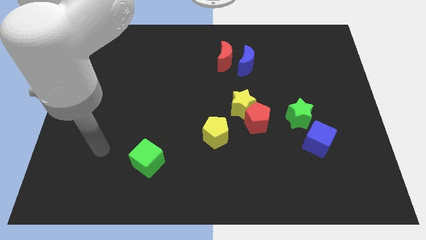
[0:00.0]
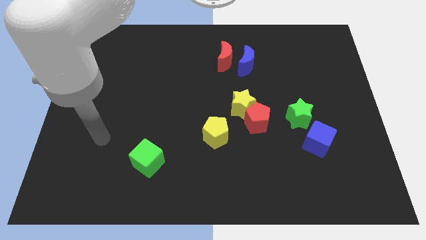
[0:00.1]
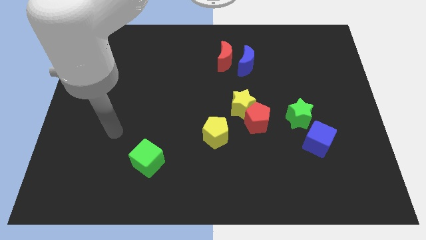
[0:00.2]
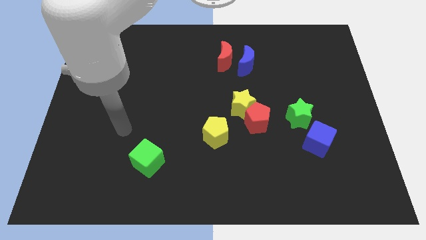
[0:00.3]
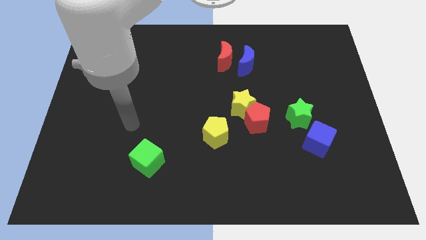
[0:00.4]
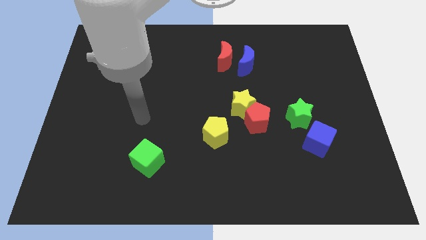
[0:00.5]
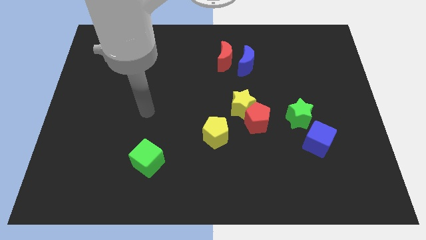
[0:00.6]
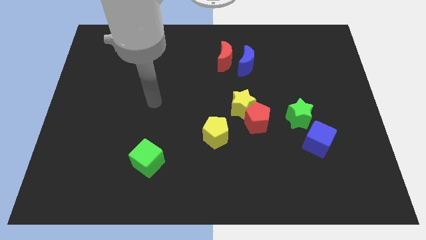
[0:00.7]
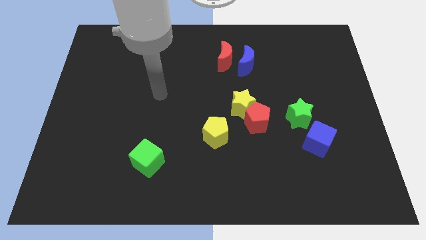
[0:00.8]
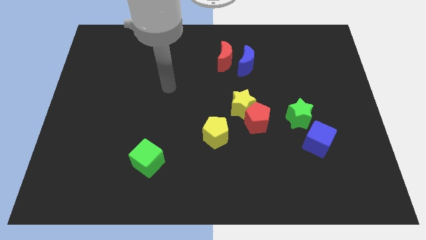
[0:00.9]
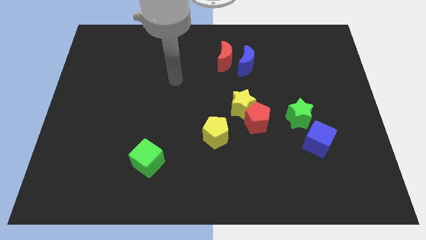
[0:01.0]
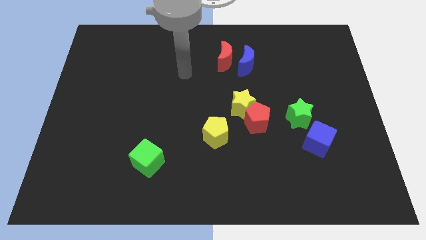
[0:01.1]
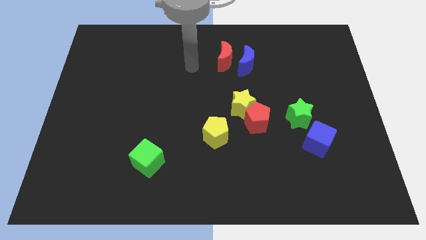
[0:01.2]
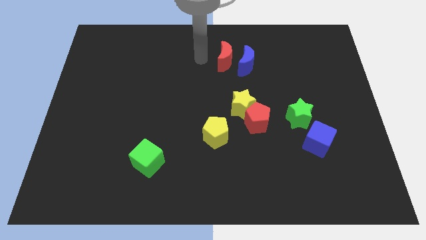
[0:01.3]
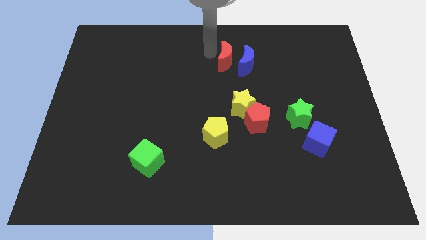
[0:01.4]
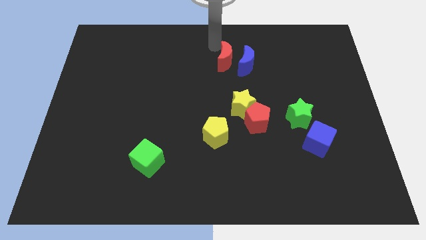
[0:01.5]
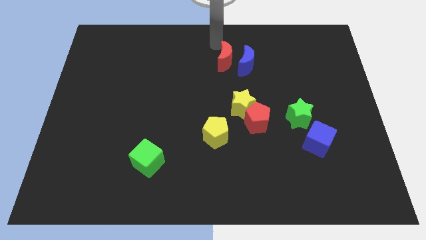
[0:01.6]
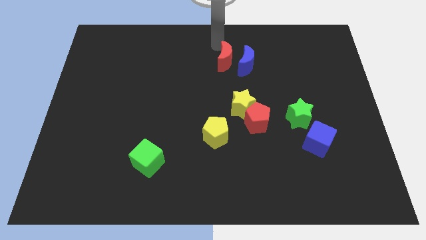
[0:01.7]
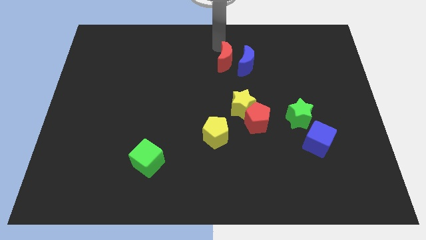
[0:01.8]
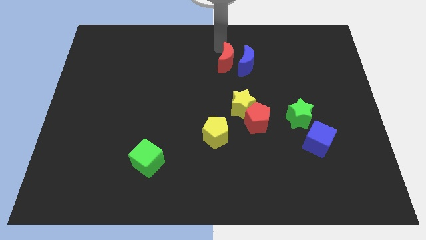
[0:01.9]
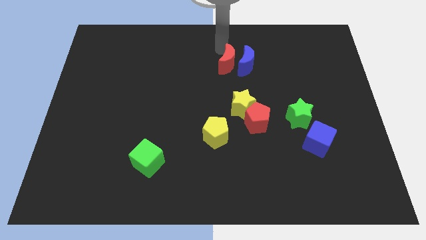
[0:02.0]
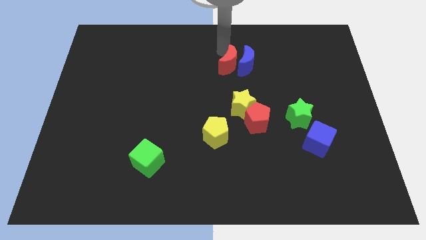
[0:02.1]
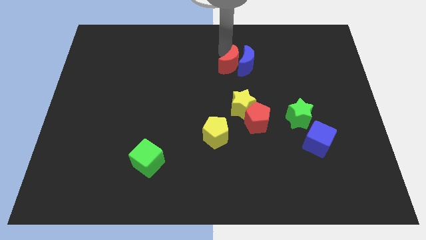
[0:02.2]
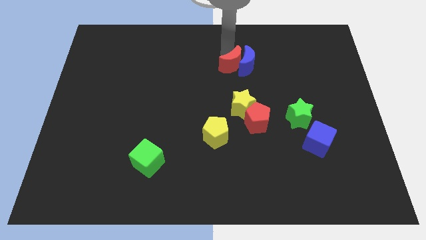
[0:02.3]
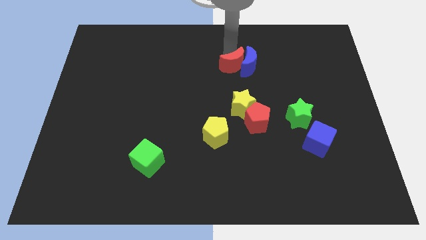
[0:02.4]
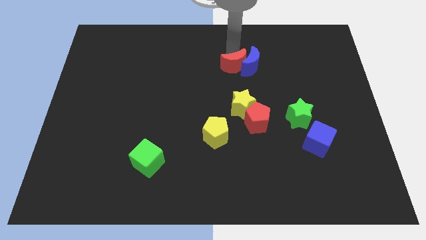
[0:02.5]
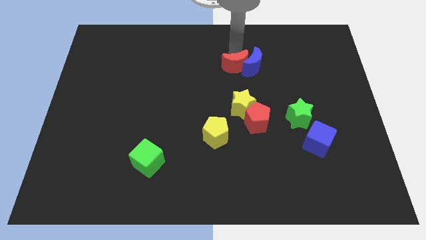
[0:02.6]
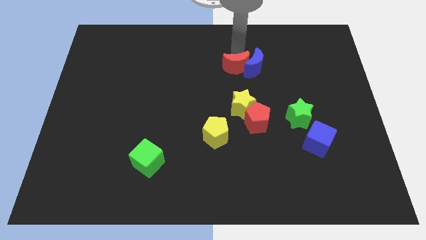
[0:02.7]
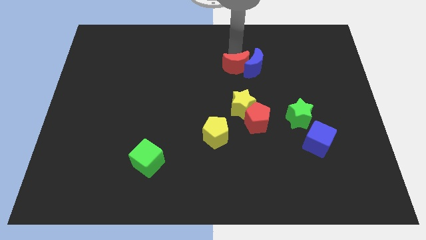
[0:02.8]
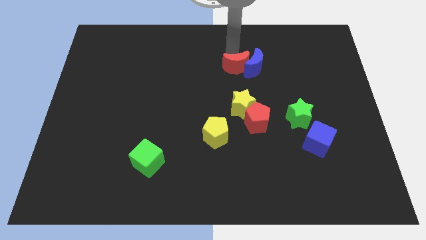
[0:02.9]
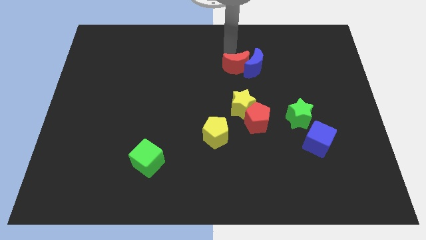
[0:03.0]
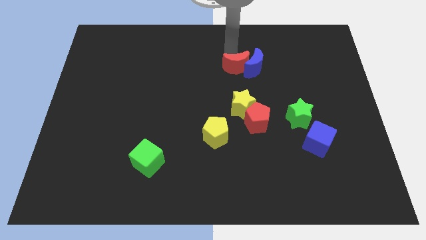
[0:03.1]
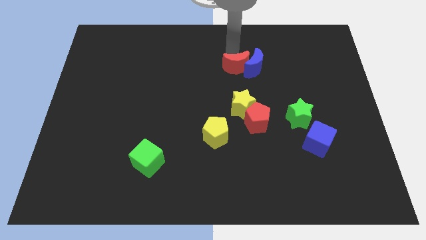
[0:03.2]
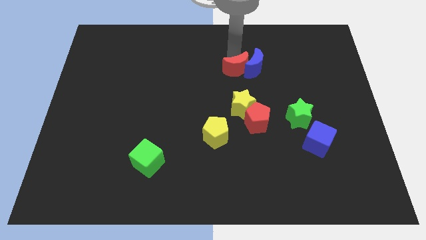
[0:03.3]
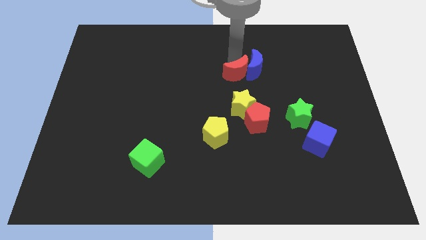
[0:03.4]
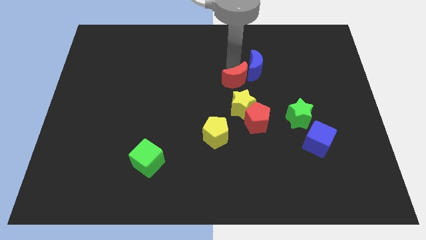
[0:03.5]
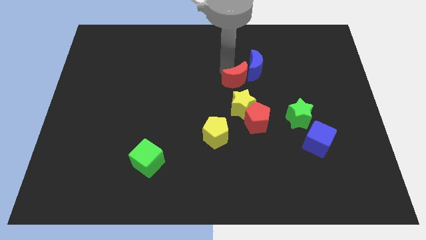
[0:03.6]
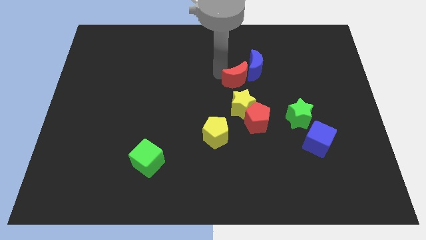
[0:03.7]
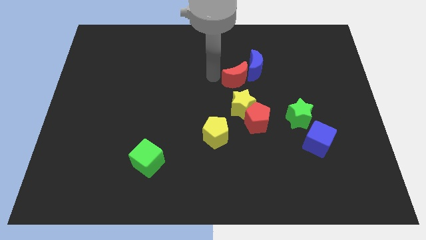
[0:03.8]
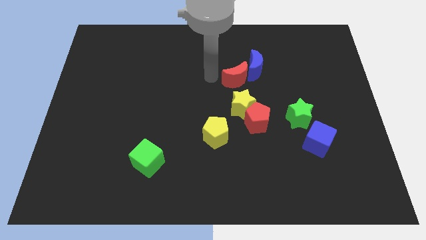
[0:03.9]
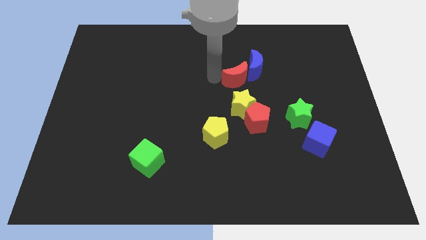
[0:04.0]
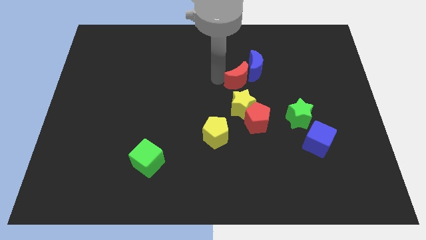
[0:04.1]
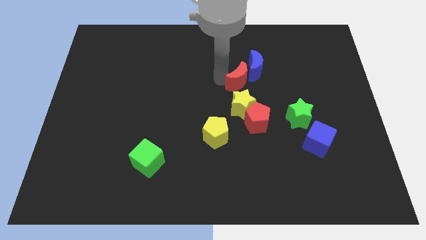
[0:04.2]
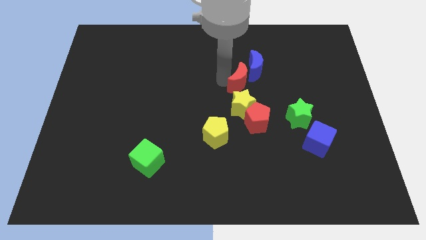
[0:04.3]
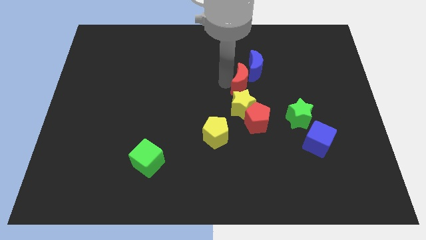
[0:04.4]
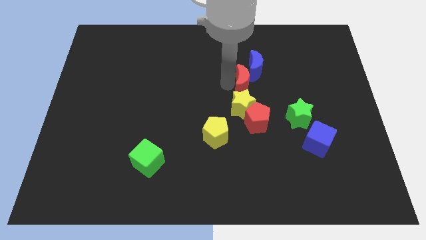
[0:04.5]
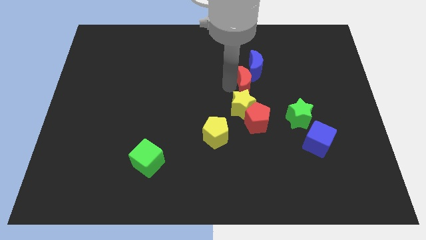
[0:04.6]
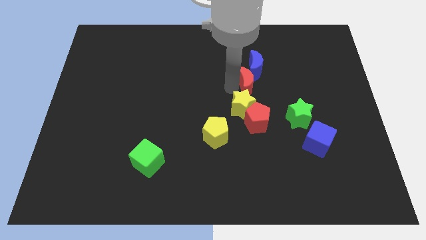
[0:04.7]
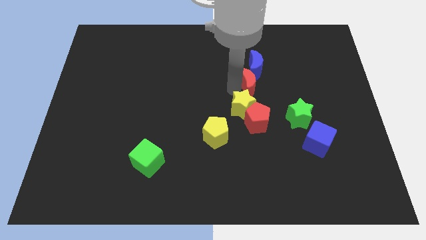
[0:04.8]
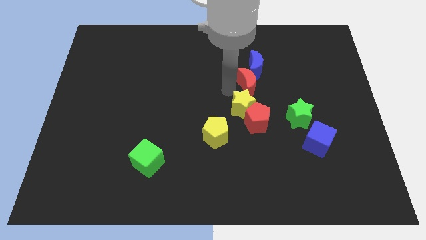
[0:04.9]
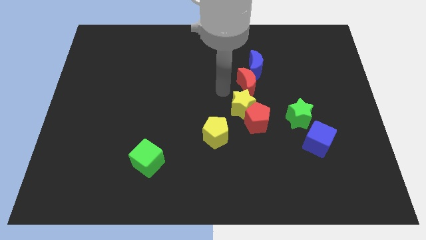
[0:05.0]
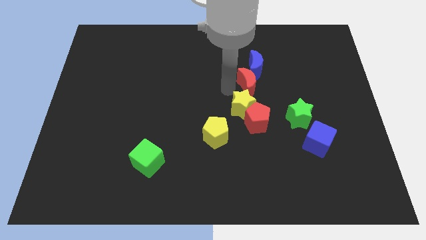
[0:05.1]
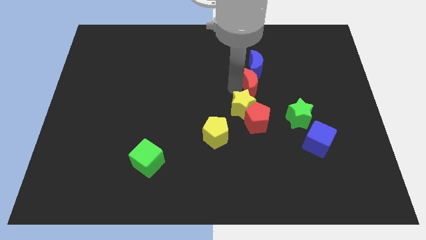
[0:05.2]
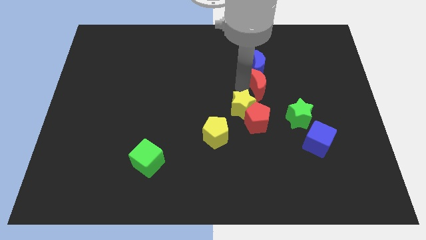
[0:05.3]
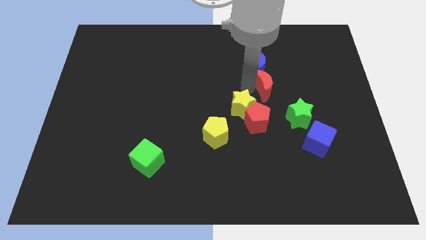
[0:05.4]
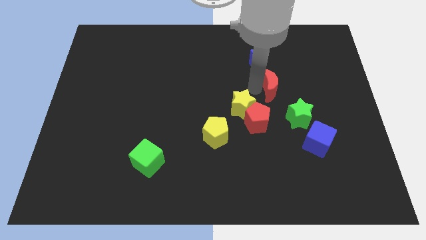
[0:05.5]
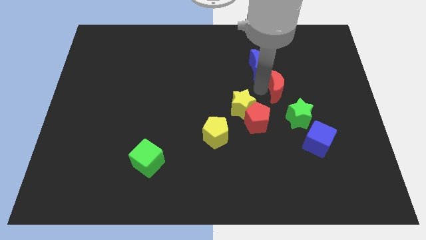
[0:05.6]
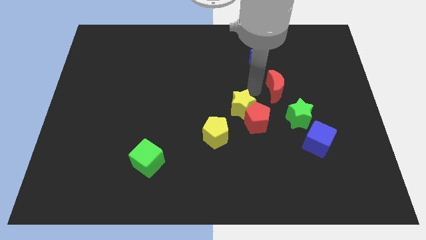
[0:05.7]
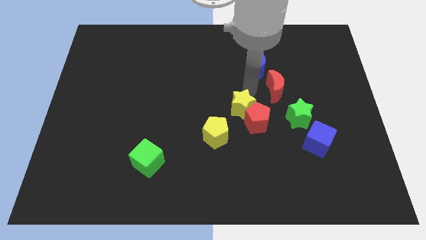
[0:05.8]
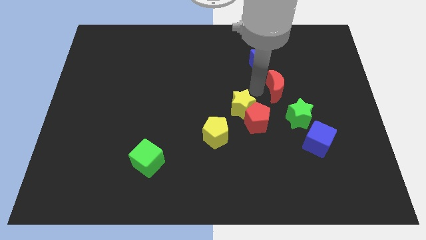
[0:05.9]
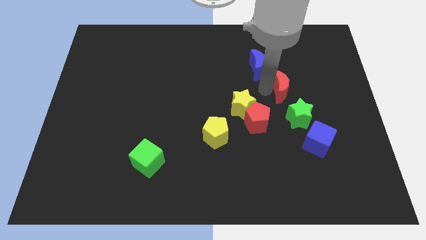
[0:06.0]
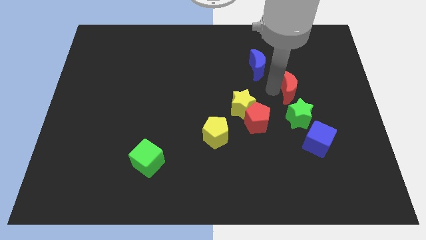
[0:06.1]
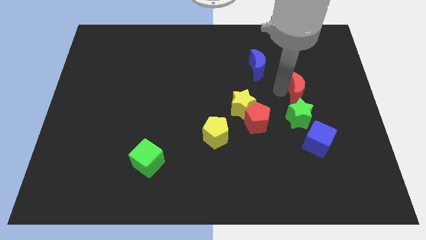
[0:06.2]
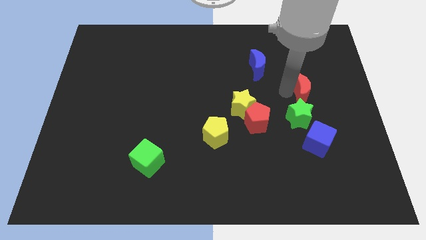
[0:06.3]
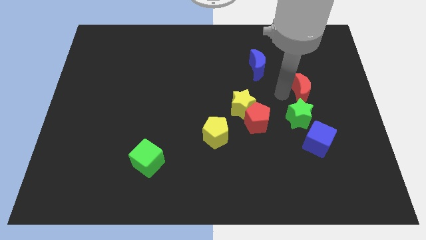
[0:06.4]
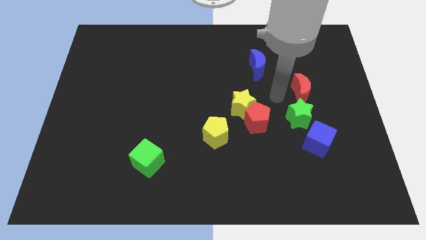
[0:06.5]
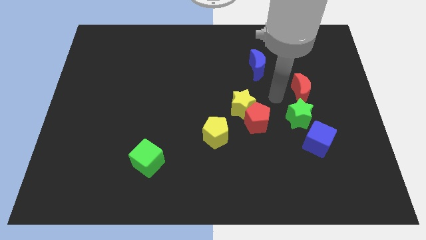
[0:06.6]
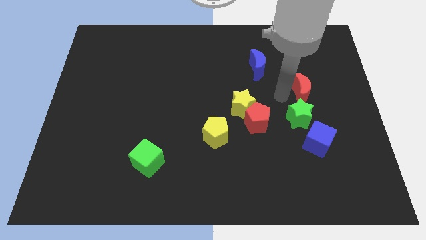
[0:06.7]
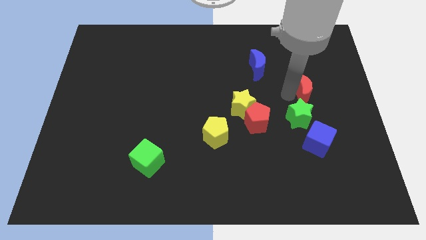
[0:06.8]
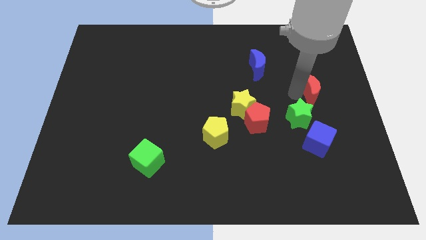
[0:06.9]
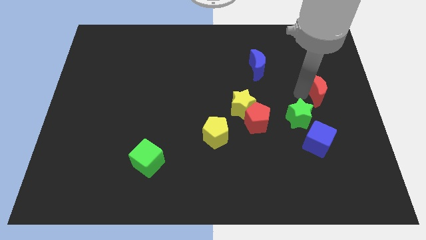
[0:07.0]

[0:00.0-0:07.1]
put the red moon to the right side

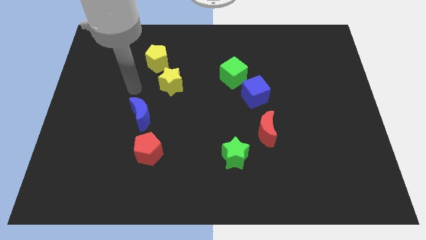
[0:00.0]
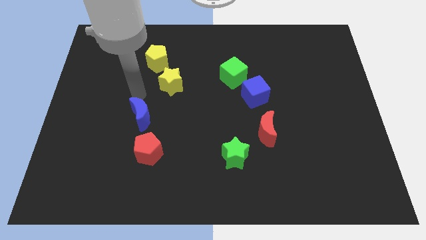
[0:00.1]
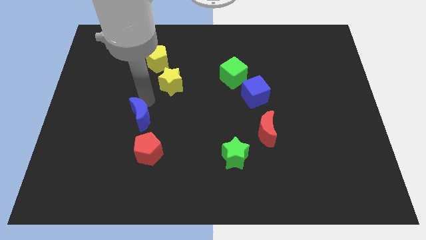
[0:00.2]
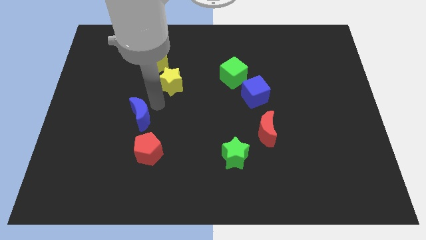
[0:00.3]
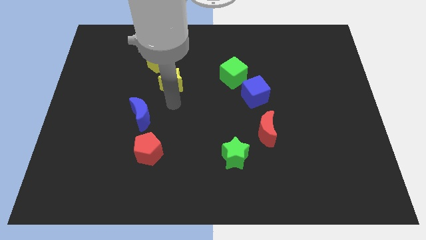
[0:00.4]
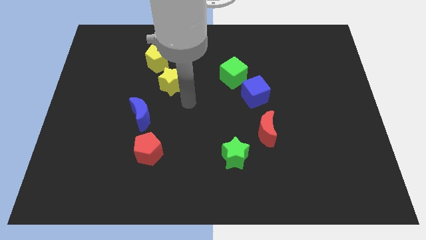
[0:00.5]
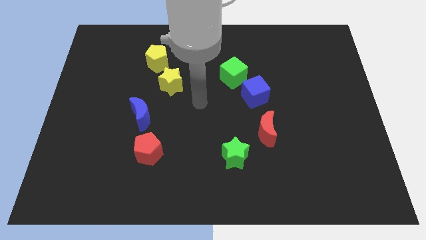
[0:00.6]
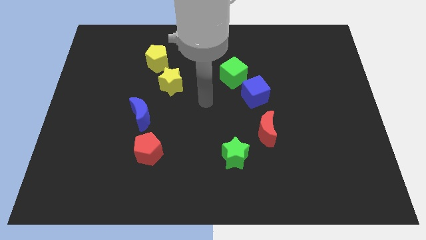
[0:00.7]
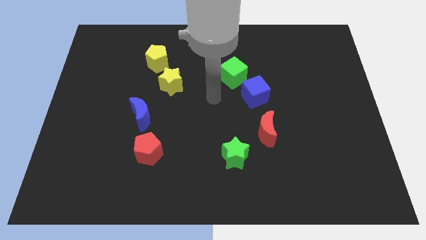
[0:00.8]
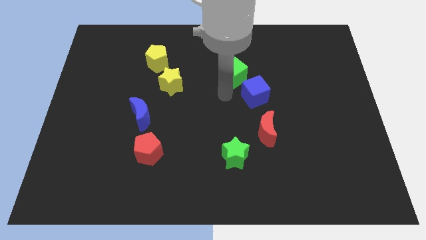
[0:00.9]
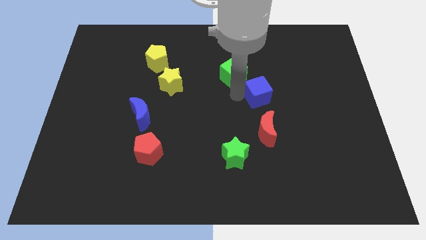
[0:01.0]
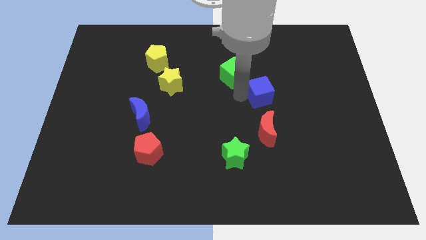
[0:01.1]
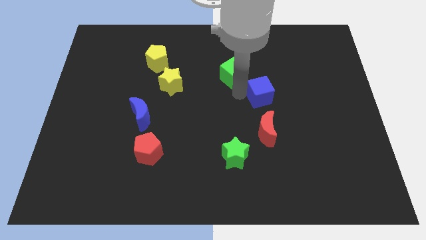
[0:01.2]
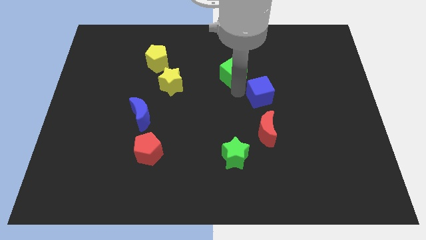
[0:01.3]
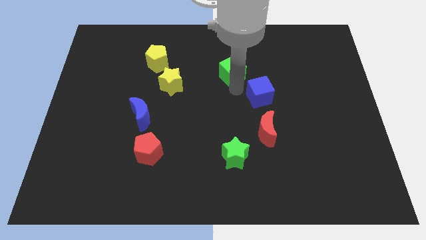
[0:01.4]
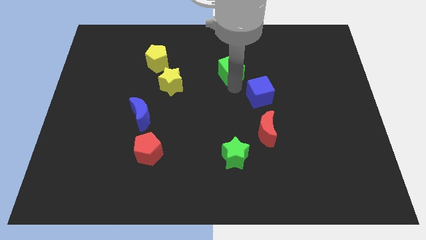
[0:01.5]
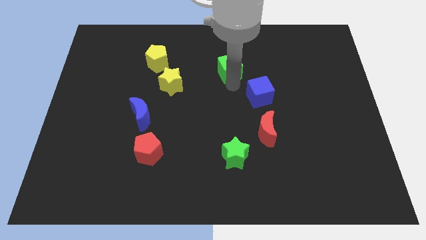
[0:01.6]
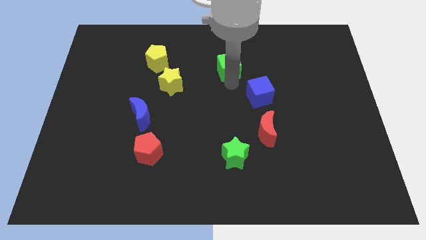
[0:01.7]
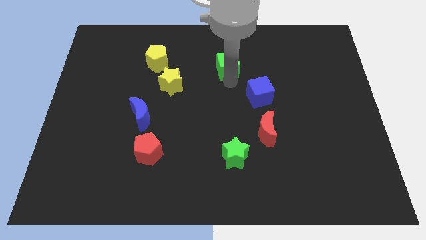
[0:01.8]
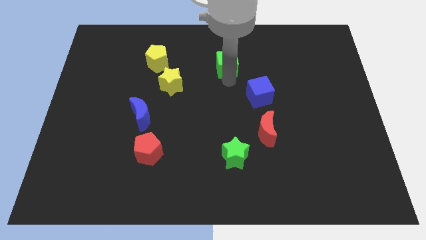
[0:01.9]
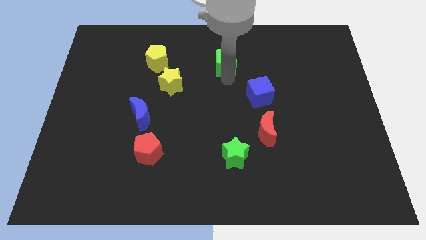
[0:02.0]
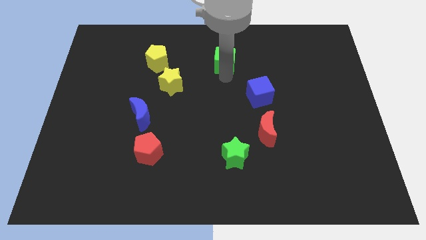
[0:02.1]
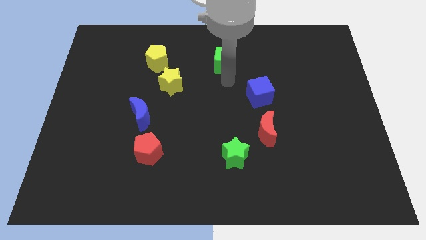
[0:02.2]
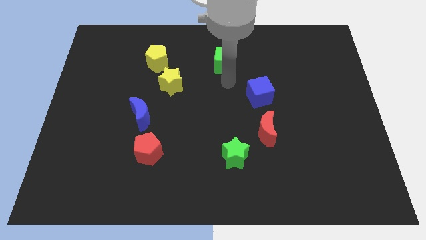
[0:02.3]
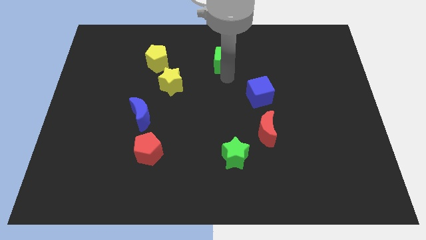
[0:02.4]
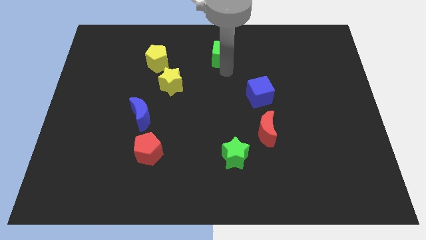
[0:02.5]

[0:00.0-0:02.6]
slide the green cube to the towards your base
